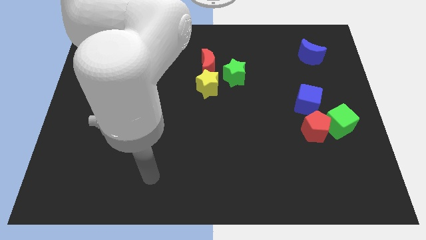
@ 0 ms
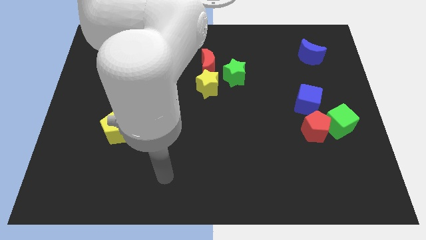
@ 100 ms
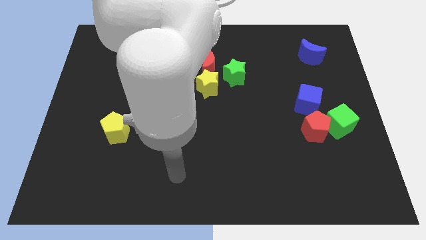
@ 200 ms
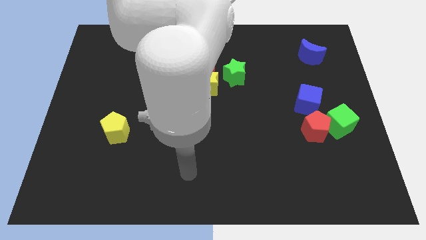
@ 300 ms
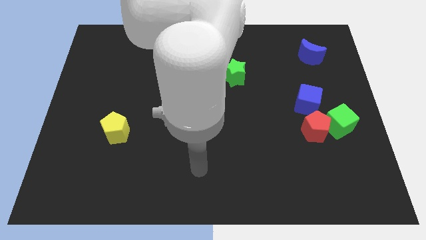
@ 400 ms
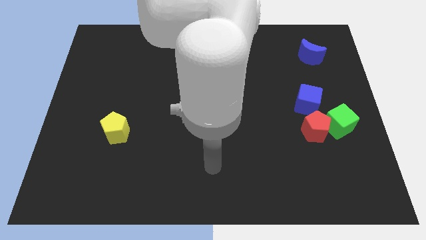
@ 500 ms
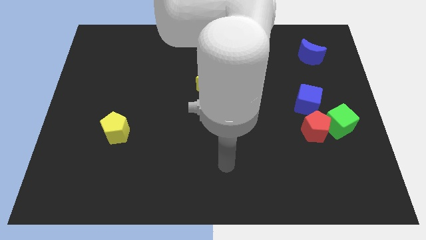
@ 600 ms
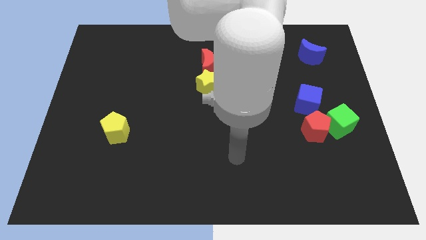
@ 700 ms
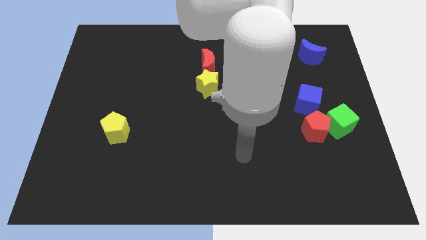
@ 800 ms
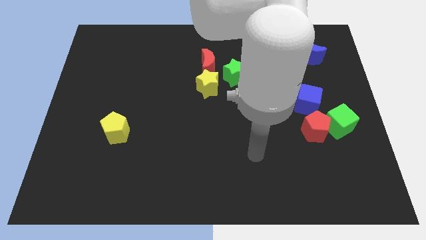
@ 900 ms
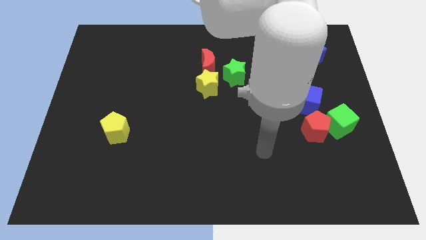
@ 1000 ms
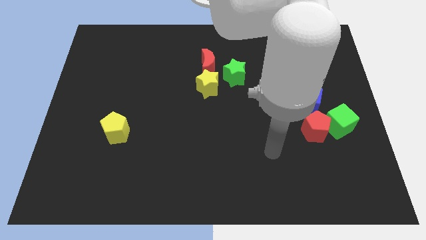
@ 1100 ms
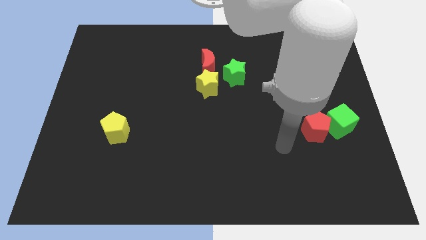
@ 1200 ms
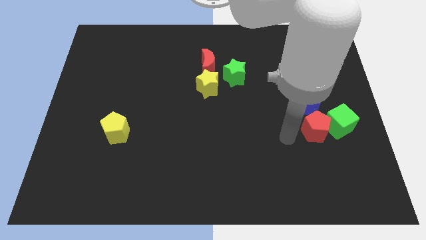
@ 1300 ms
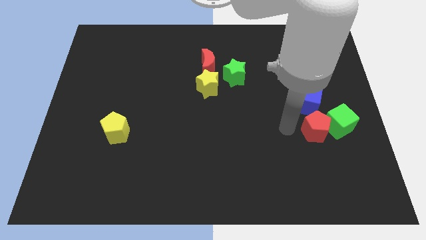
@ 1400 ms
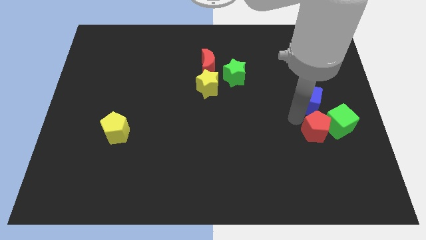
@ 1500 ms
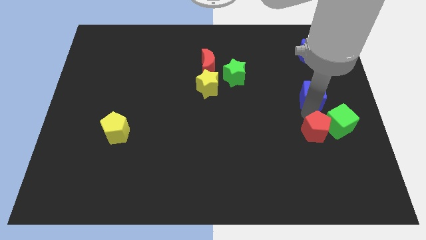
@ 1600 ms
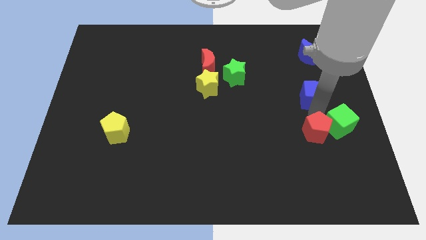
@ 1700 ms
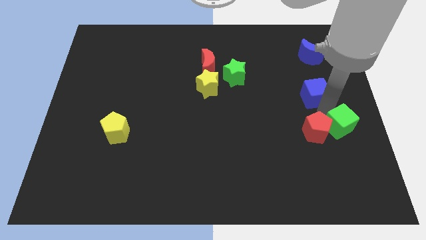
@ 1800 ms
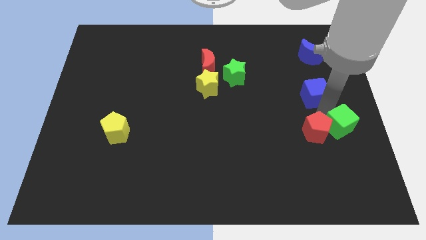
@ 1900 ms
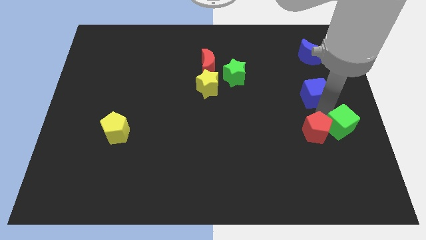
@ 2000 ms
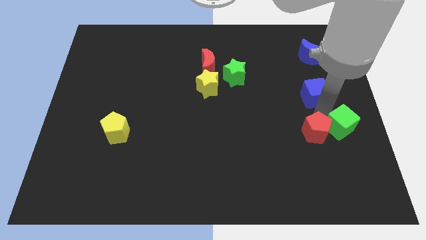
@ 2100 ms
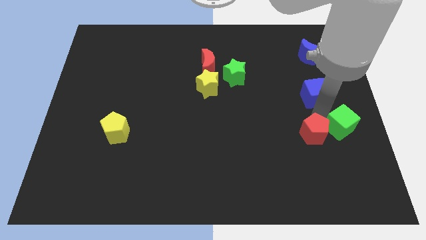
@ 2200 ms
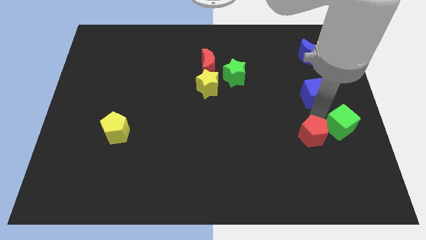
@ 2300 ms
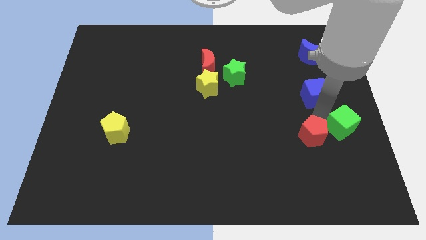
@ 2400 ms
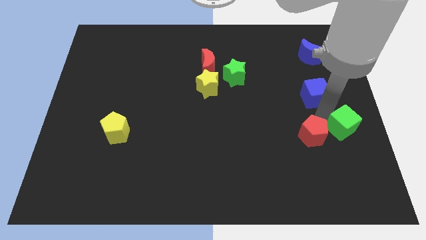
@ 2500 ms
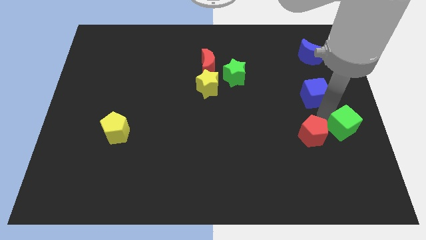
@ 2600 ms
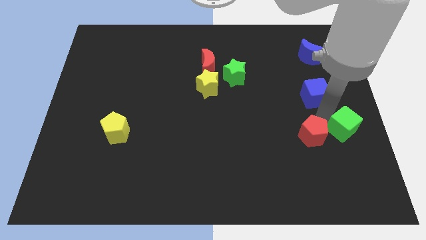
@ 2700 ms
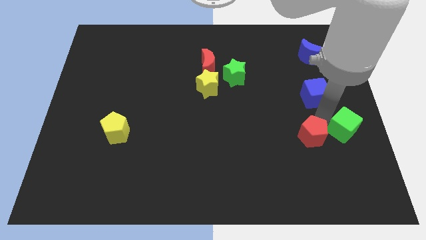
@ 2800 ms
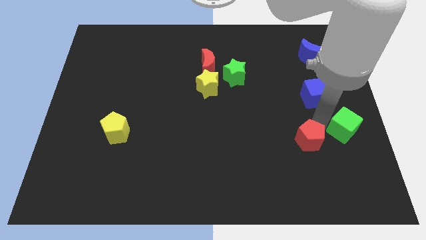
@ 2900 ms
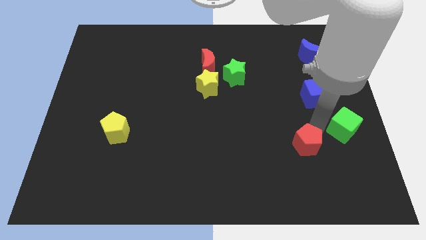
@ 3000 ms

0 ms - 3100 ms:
pull the red pentagon apart from the green cube and blue cube

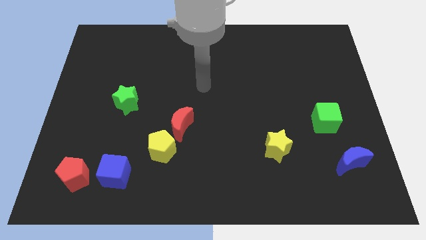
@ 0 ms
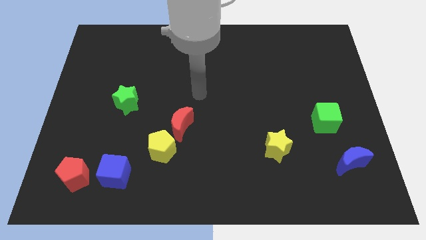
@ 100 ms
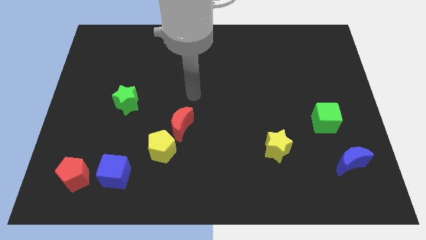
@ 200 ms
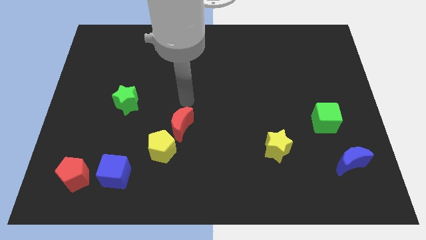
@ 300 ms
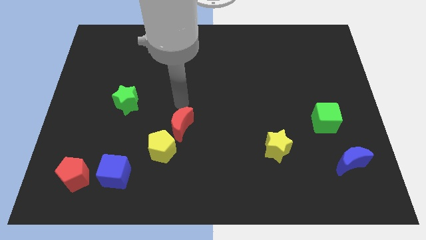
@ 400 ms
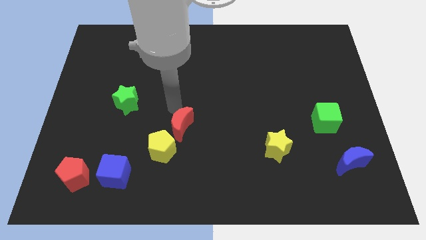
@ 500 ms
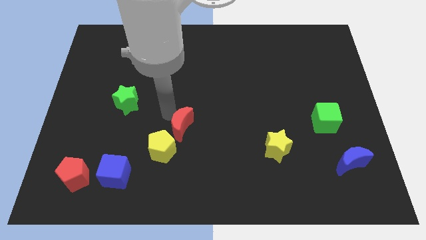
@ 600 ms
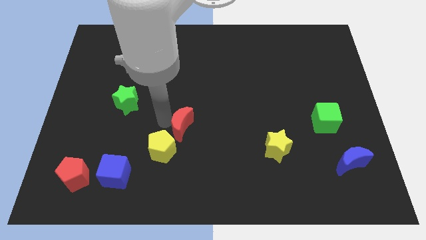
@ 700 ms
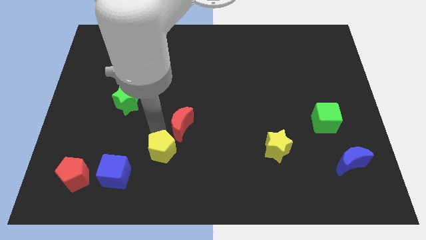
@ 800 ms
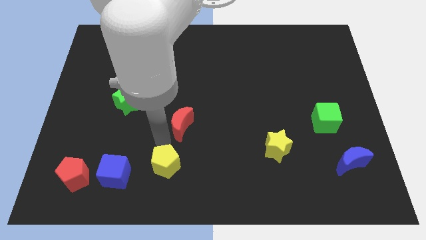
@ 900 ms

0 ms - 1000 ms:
separate the red moon from the yellow pentagon

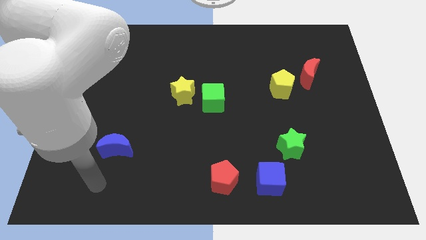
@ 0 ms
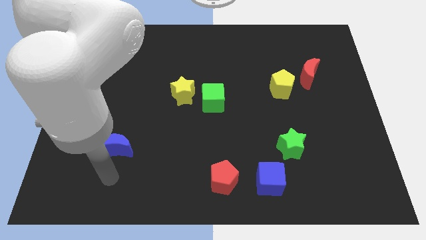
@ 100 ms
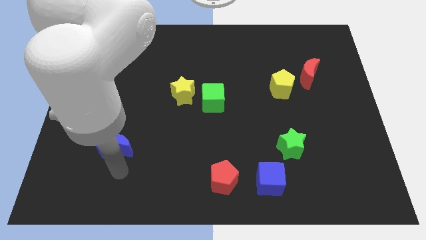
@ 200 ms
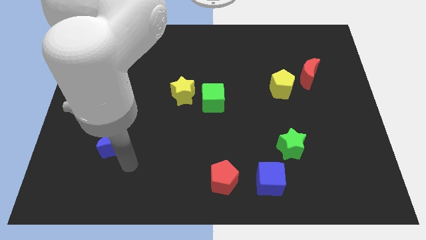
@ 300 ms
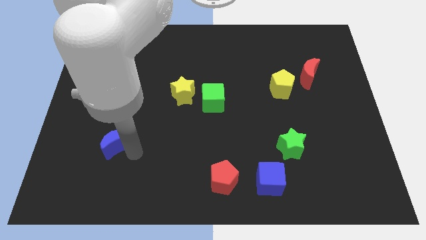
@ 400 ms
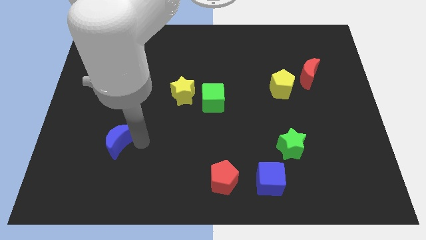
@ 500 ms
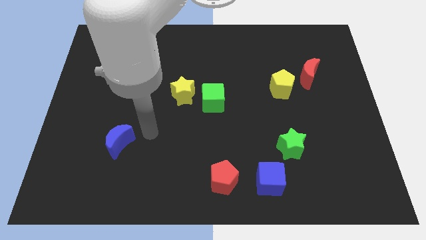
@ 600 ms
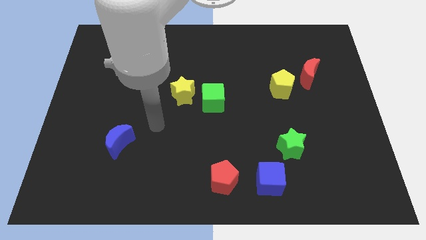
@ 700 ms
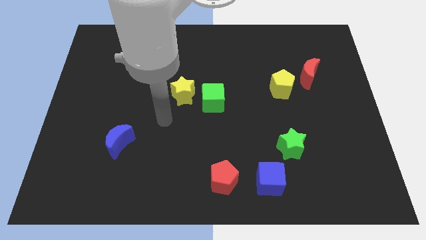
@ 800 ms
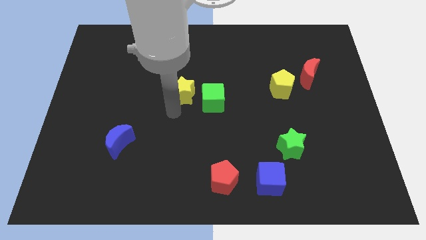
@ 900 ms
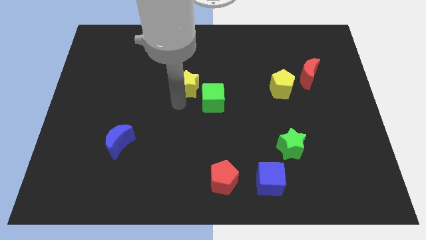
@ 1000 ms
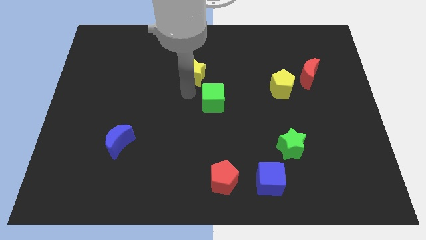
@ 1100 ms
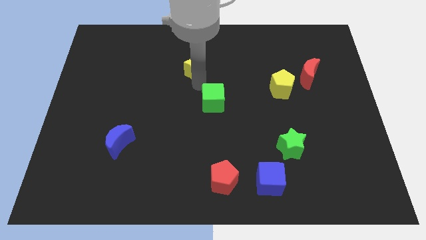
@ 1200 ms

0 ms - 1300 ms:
pull the green cube apart from the yellow star

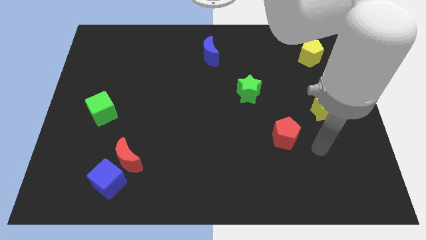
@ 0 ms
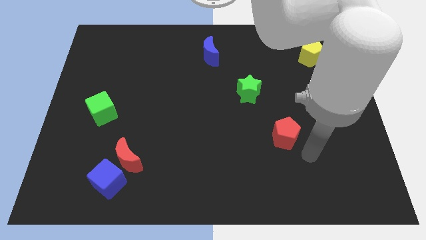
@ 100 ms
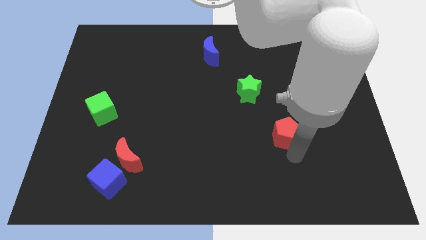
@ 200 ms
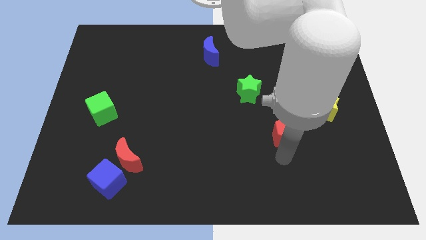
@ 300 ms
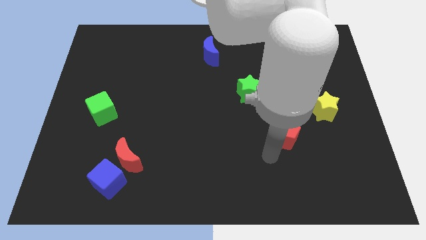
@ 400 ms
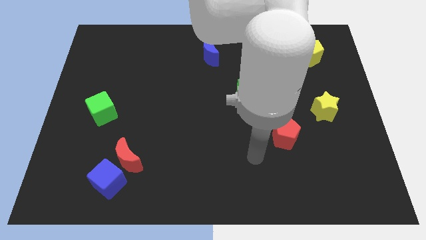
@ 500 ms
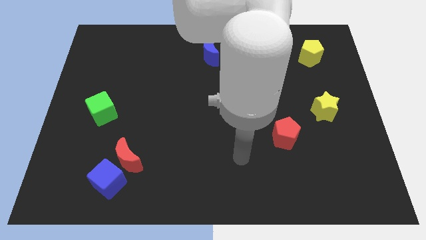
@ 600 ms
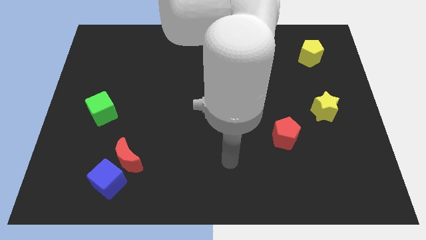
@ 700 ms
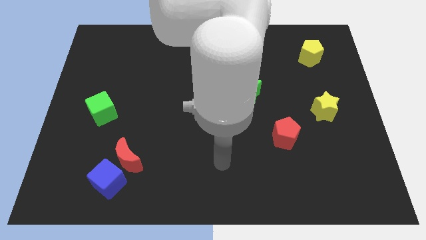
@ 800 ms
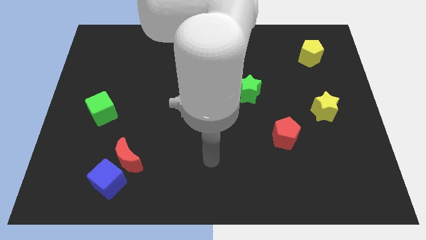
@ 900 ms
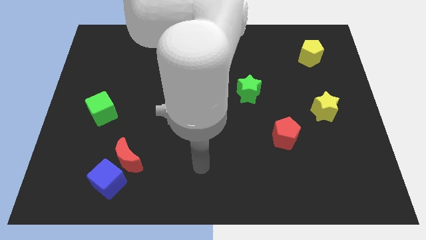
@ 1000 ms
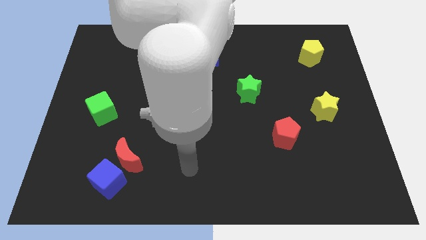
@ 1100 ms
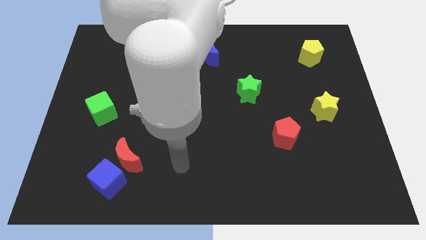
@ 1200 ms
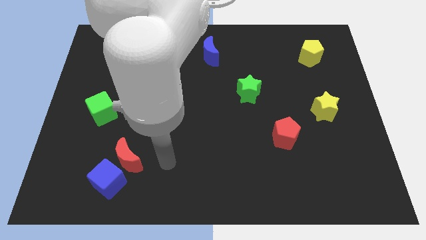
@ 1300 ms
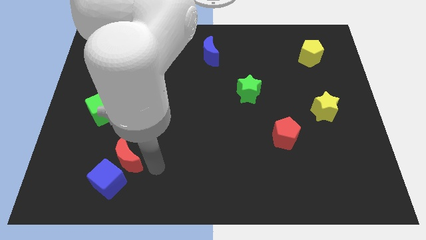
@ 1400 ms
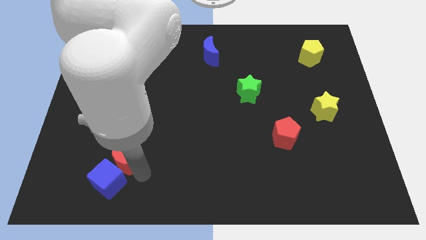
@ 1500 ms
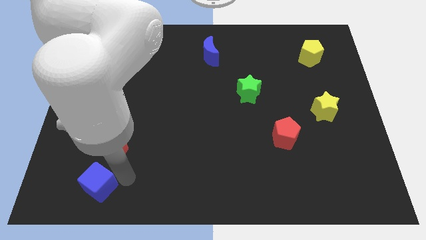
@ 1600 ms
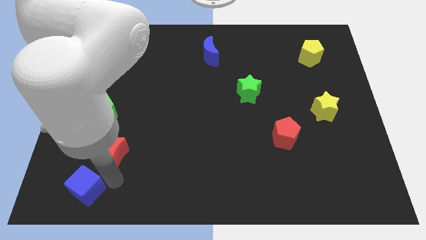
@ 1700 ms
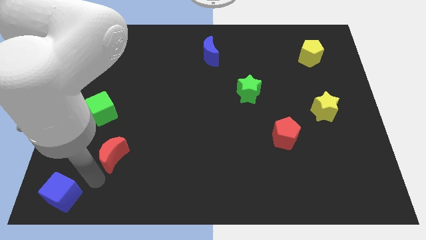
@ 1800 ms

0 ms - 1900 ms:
pull the red moon apart from the blue cube

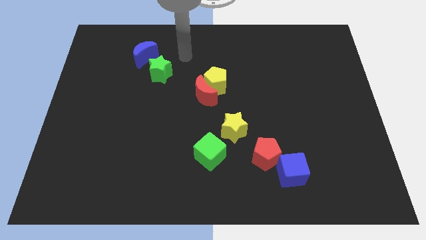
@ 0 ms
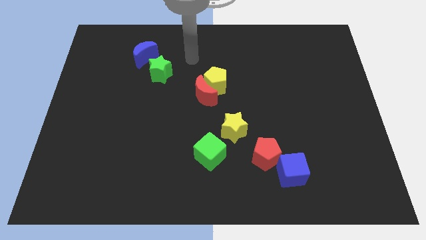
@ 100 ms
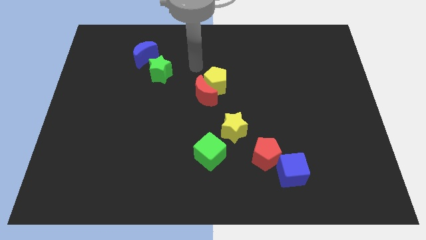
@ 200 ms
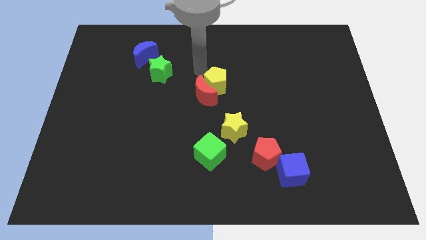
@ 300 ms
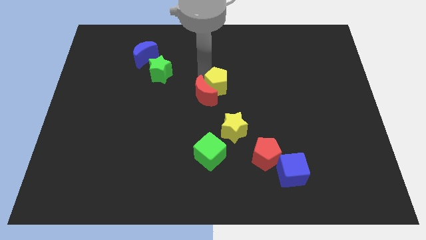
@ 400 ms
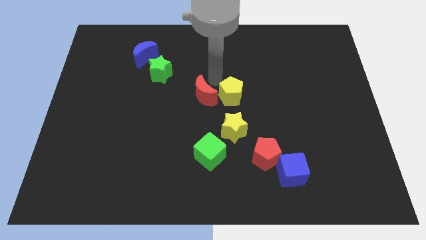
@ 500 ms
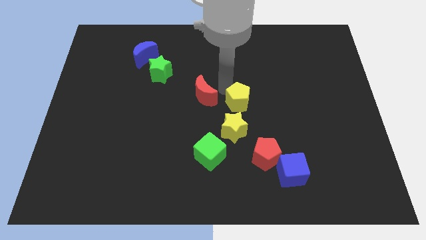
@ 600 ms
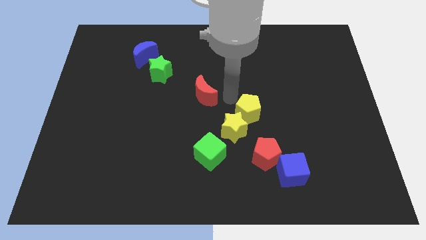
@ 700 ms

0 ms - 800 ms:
move the red moon away from the yellow pentagon

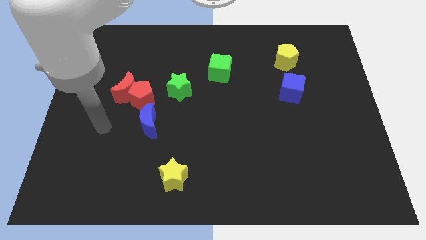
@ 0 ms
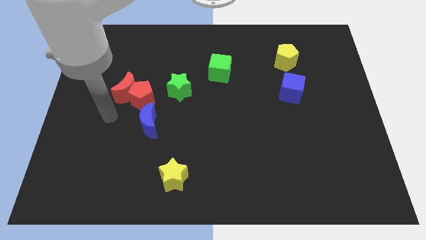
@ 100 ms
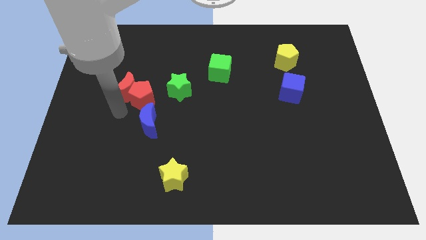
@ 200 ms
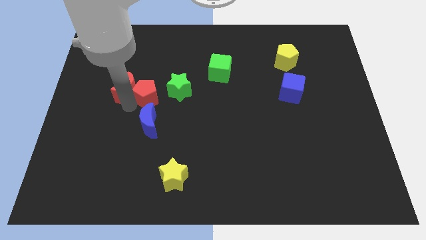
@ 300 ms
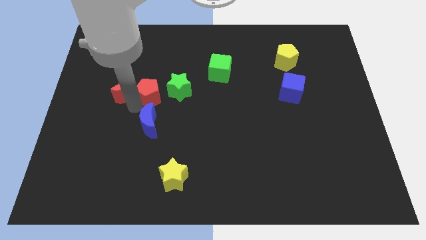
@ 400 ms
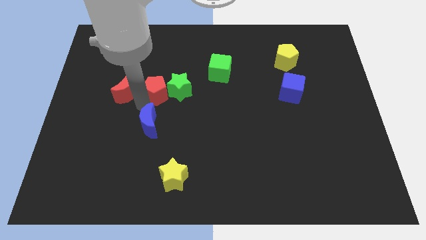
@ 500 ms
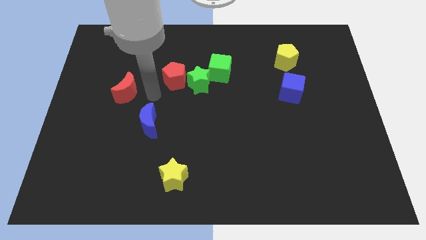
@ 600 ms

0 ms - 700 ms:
pull the red moon apart from the red pentagon

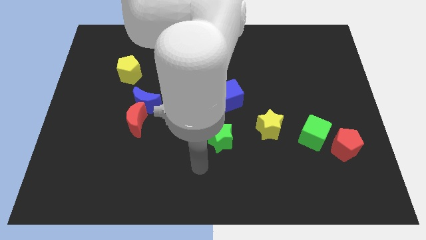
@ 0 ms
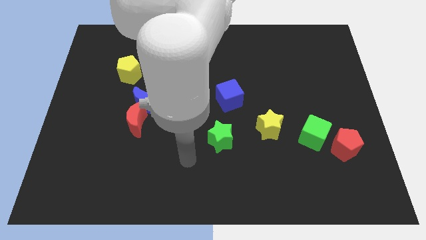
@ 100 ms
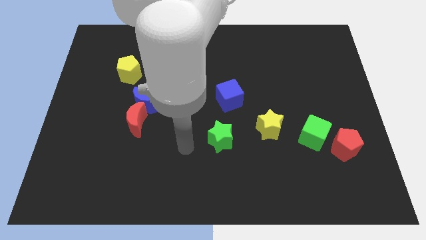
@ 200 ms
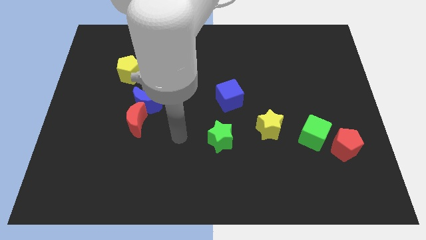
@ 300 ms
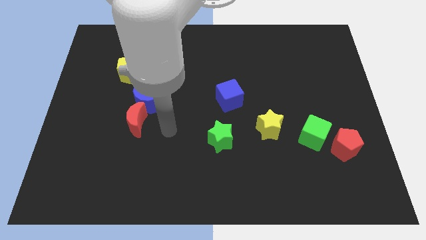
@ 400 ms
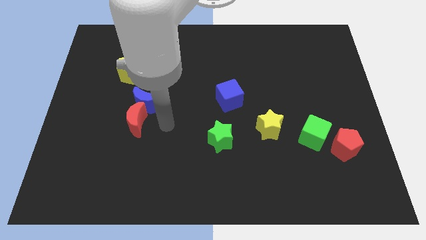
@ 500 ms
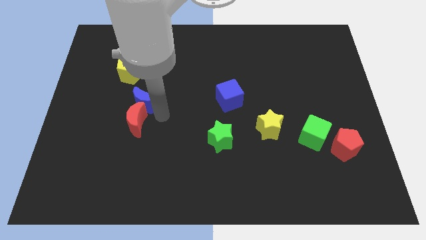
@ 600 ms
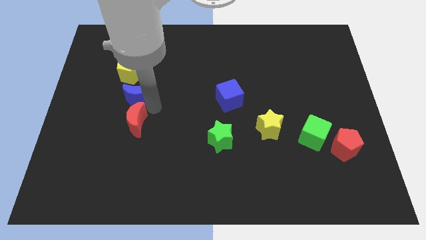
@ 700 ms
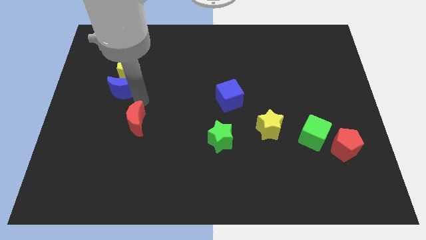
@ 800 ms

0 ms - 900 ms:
separate the red moon from the blue moon
